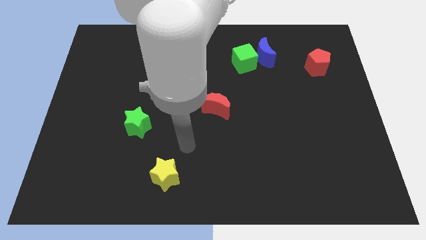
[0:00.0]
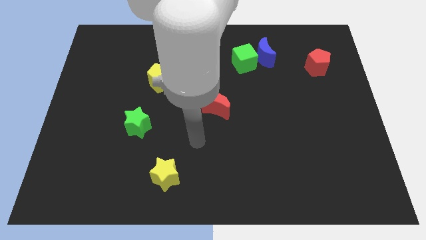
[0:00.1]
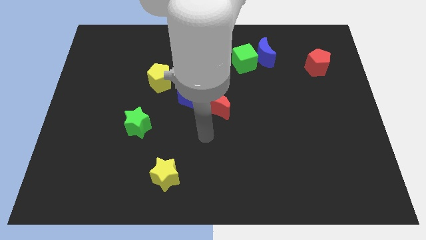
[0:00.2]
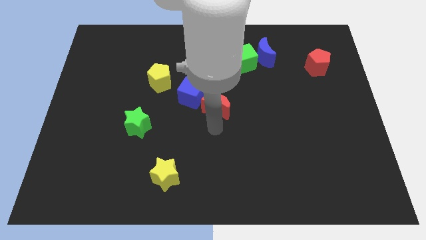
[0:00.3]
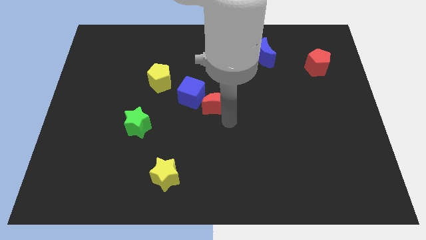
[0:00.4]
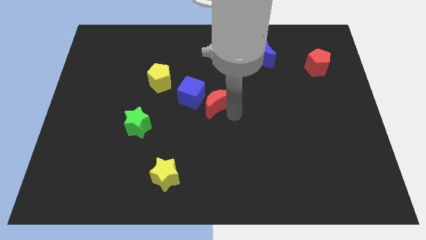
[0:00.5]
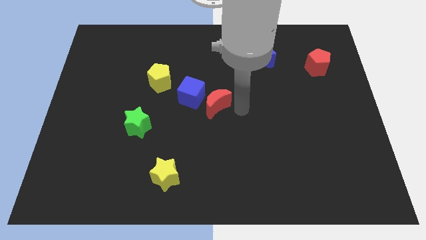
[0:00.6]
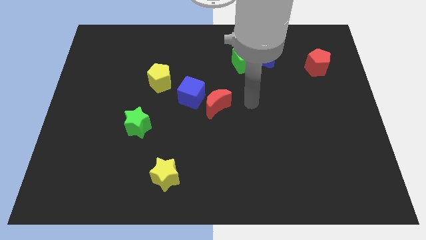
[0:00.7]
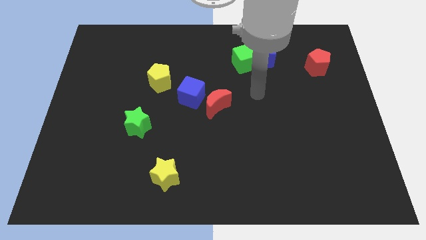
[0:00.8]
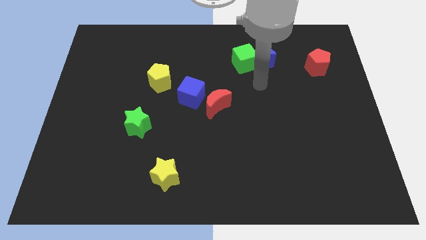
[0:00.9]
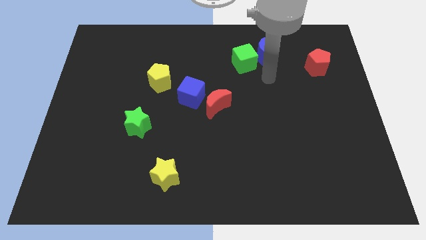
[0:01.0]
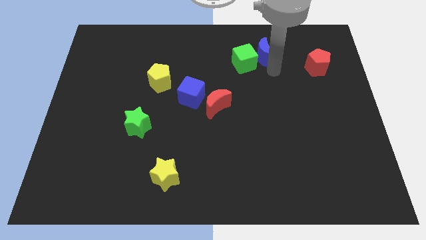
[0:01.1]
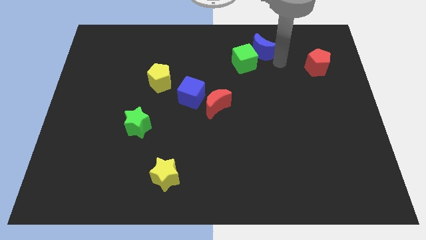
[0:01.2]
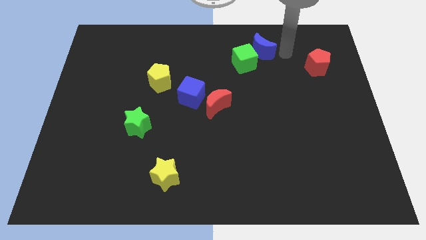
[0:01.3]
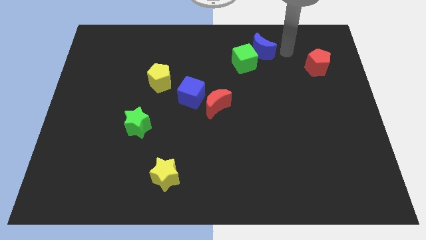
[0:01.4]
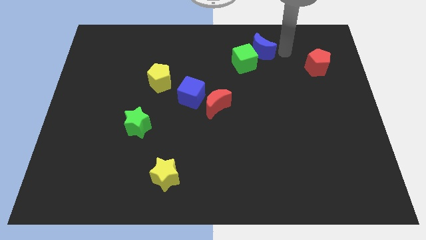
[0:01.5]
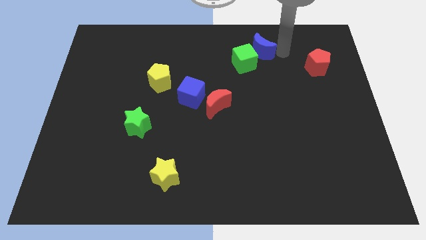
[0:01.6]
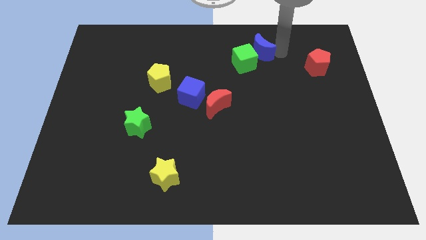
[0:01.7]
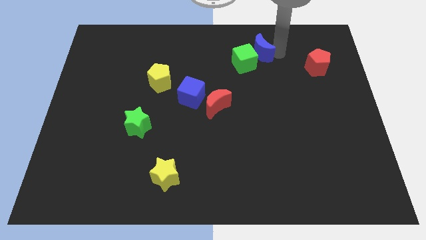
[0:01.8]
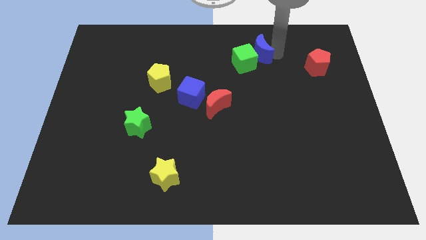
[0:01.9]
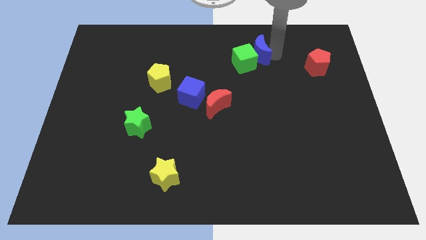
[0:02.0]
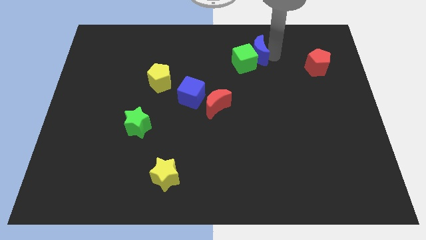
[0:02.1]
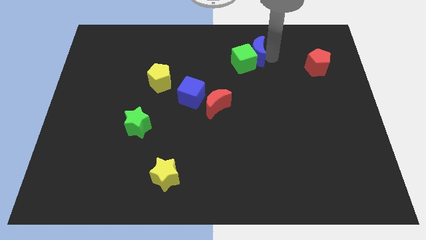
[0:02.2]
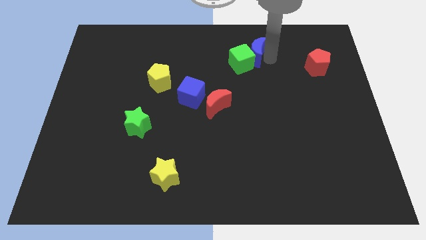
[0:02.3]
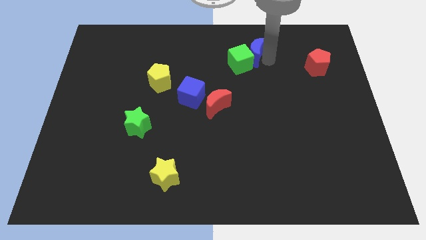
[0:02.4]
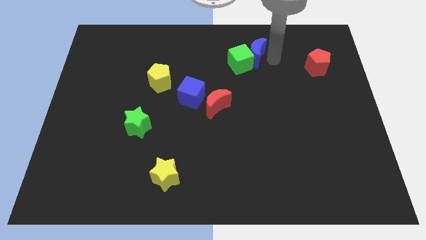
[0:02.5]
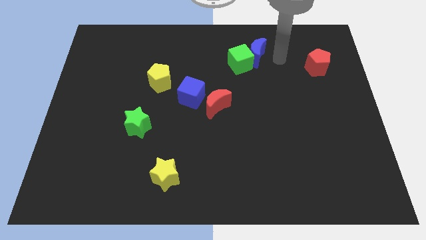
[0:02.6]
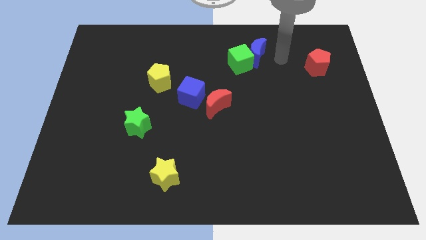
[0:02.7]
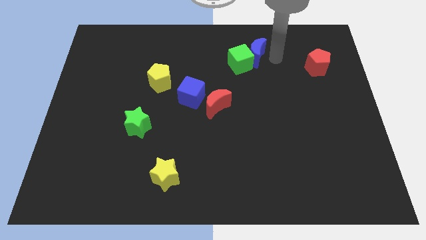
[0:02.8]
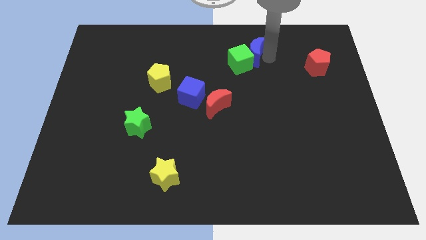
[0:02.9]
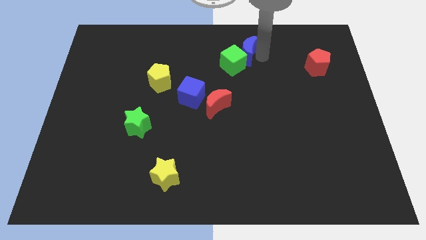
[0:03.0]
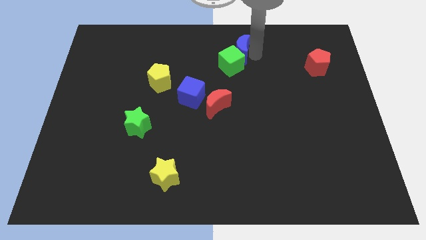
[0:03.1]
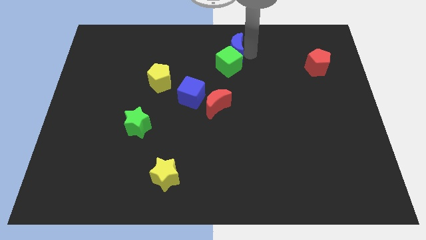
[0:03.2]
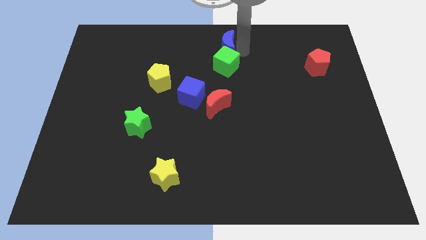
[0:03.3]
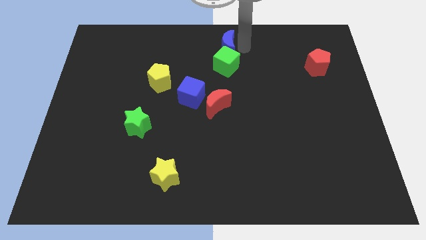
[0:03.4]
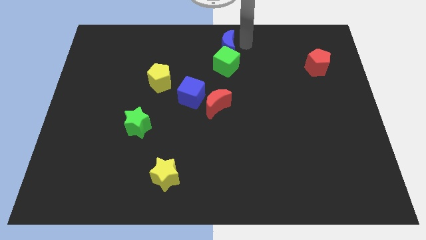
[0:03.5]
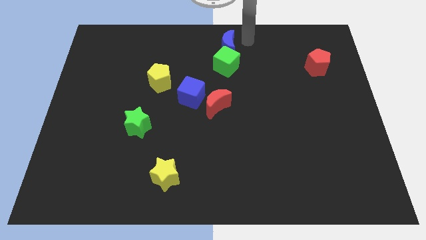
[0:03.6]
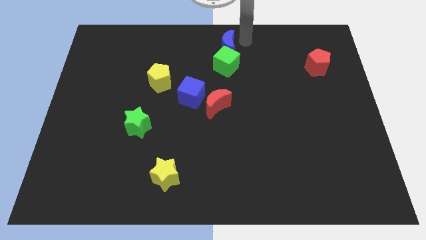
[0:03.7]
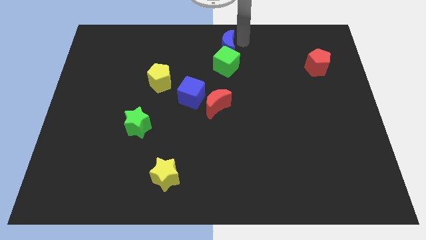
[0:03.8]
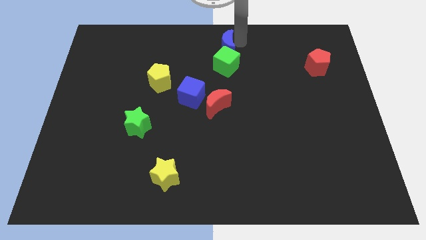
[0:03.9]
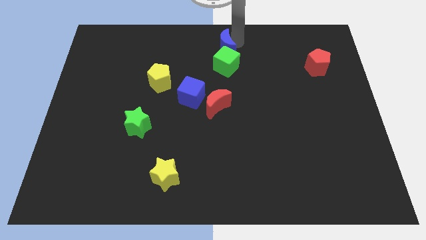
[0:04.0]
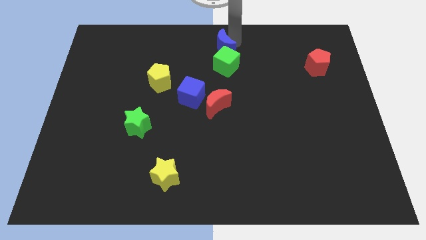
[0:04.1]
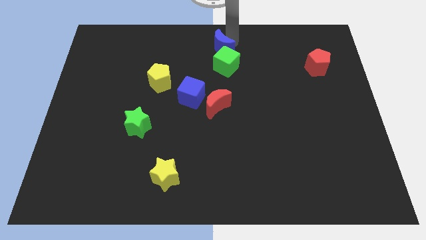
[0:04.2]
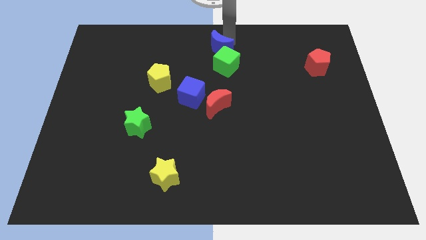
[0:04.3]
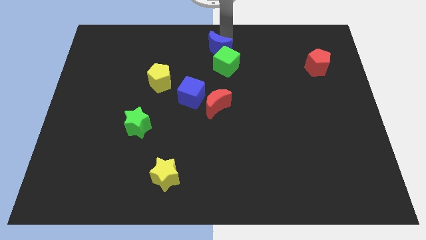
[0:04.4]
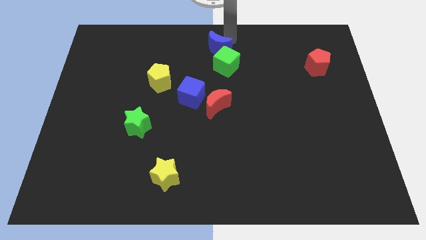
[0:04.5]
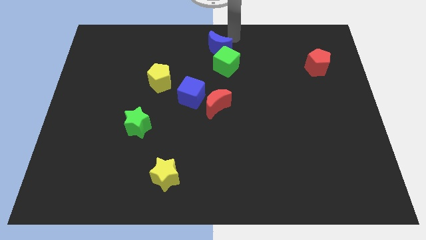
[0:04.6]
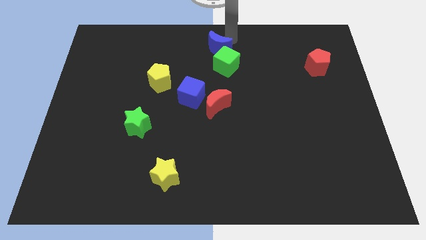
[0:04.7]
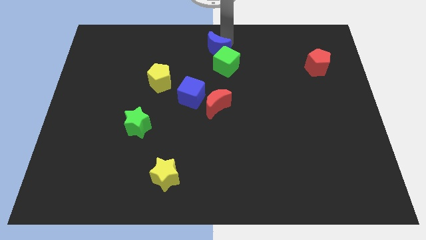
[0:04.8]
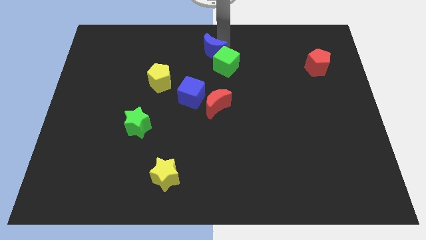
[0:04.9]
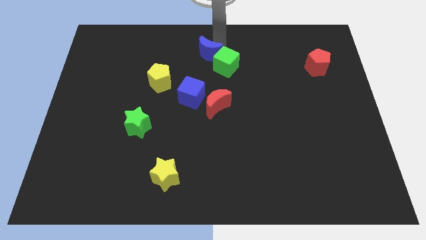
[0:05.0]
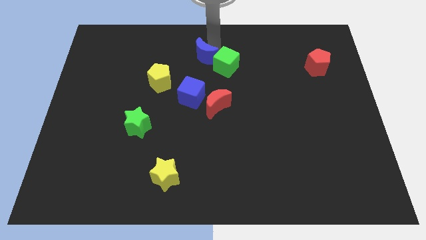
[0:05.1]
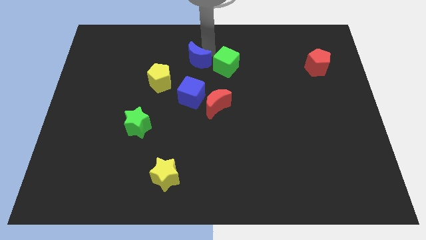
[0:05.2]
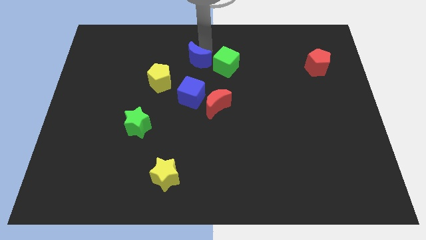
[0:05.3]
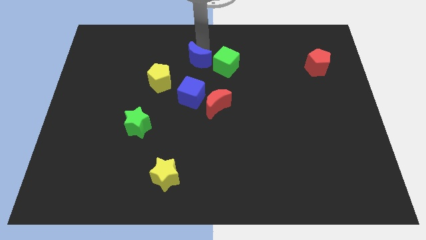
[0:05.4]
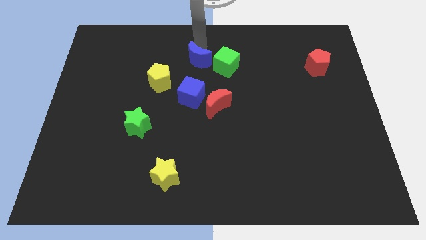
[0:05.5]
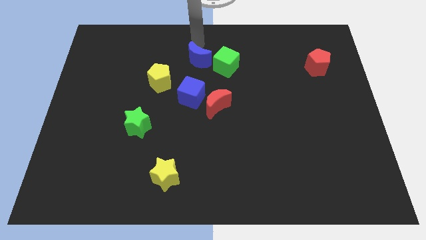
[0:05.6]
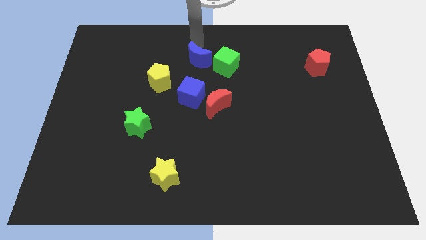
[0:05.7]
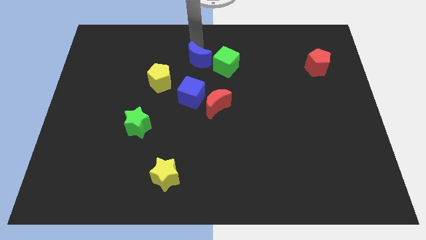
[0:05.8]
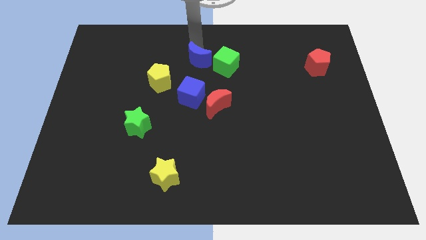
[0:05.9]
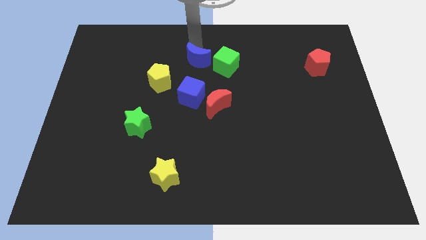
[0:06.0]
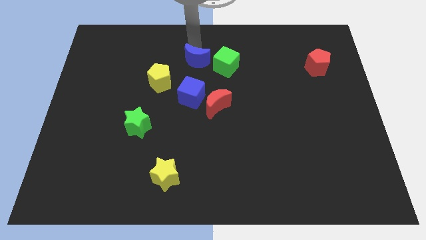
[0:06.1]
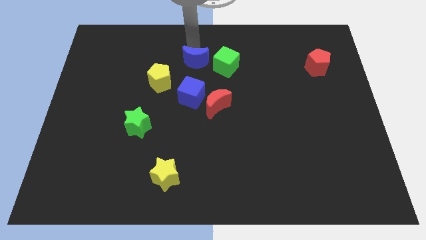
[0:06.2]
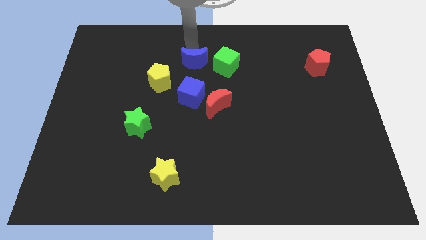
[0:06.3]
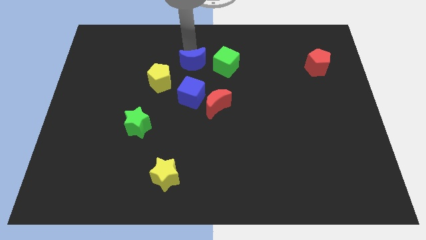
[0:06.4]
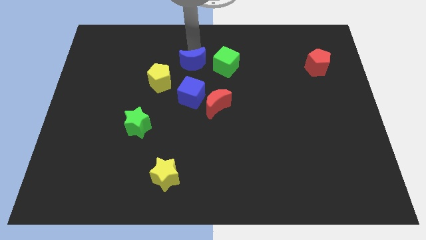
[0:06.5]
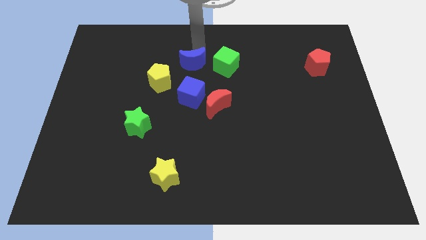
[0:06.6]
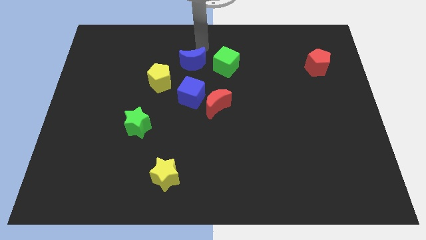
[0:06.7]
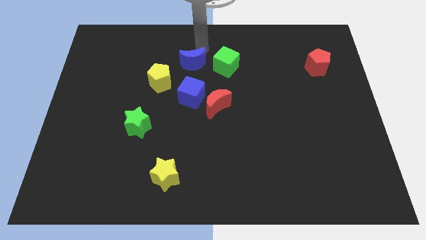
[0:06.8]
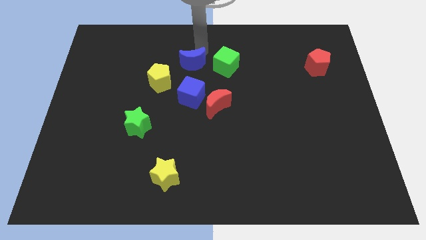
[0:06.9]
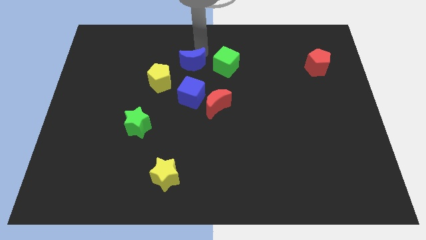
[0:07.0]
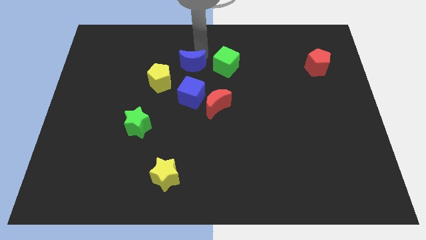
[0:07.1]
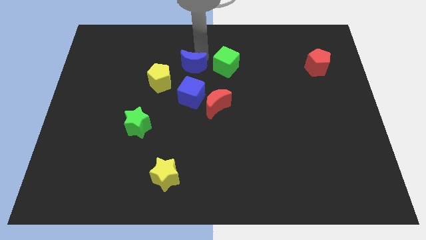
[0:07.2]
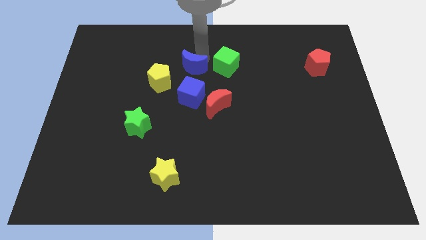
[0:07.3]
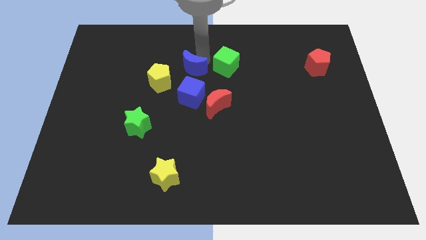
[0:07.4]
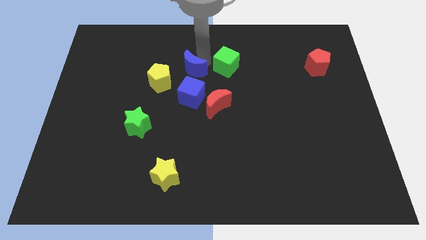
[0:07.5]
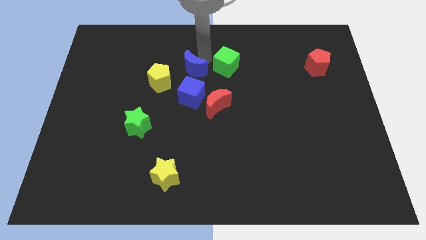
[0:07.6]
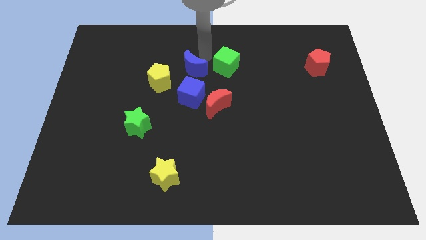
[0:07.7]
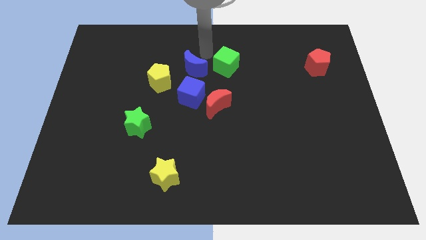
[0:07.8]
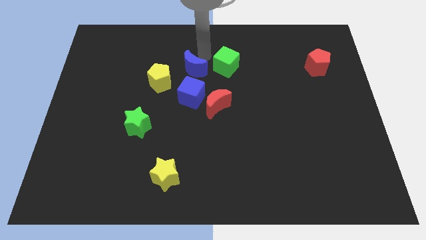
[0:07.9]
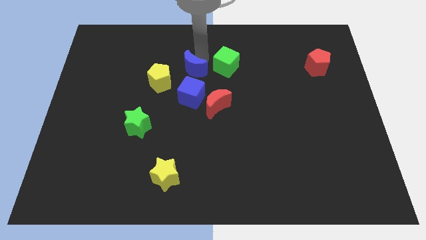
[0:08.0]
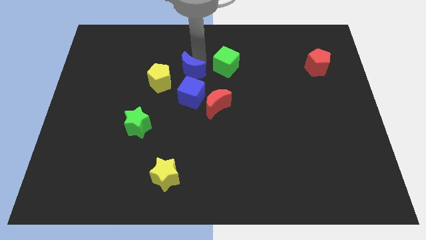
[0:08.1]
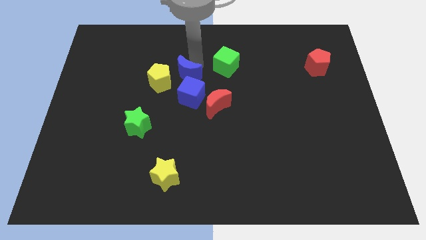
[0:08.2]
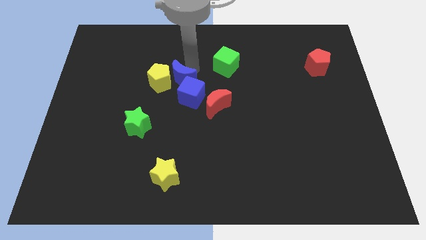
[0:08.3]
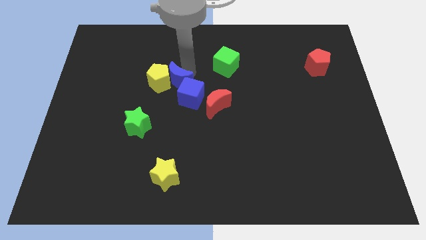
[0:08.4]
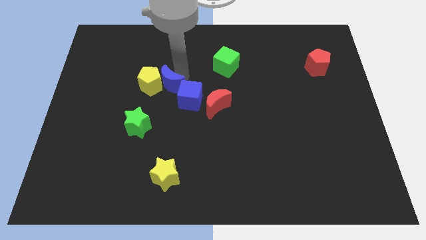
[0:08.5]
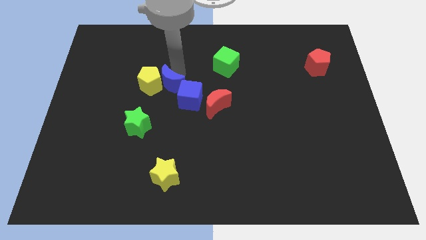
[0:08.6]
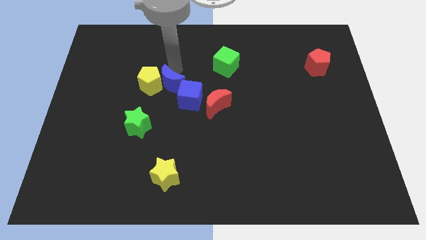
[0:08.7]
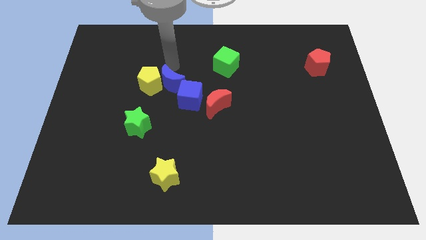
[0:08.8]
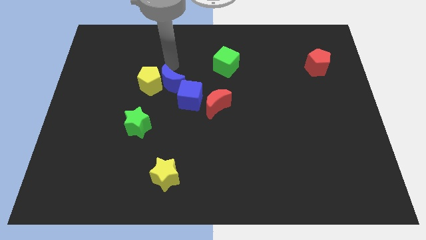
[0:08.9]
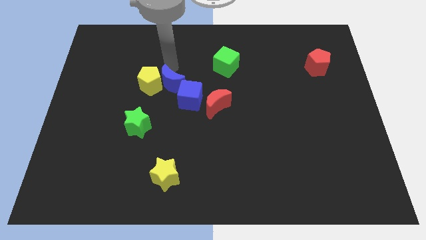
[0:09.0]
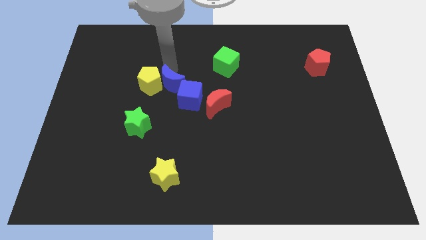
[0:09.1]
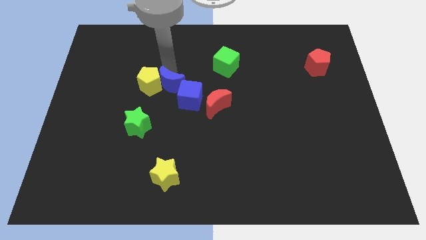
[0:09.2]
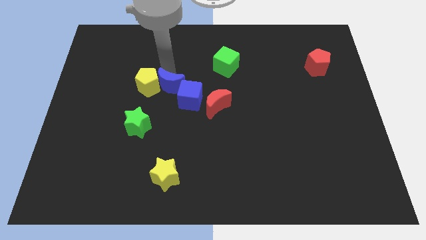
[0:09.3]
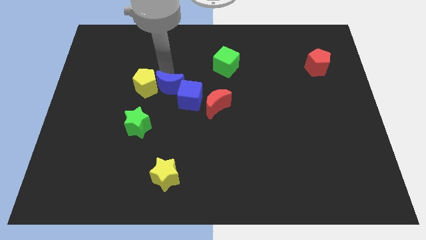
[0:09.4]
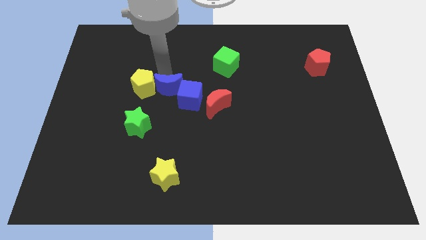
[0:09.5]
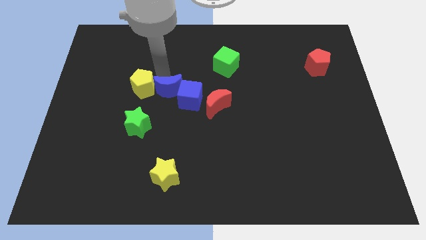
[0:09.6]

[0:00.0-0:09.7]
slide the blue moon left of the red moon
